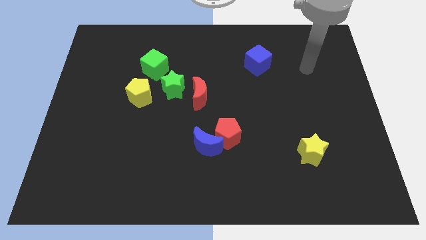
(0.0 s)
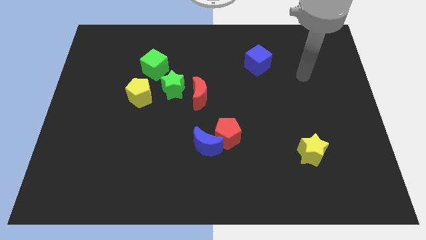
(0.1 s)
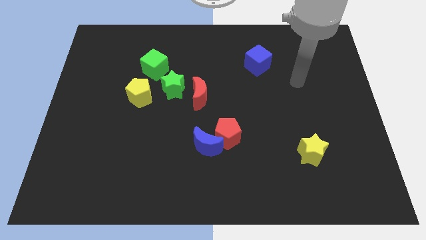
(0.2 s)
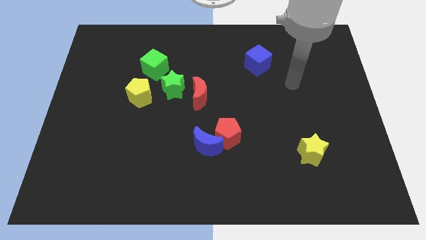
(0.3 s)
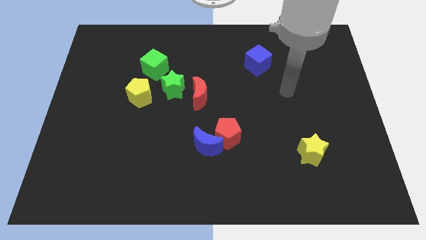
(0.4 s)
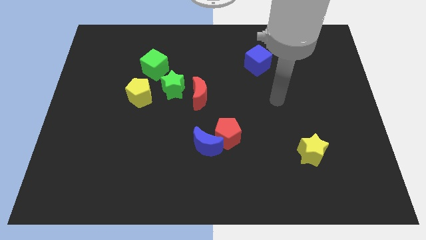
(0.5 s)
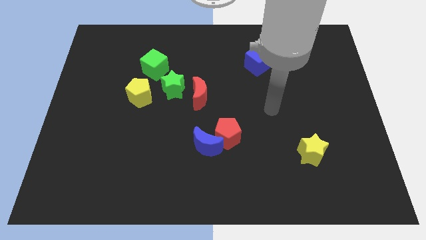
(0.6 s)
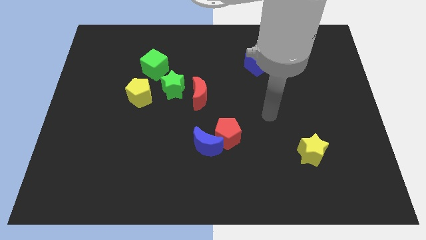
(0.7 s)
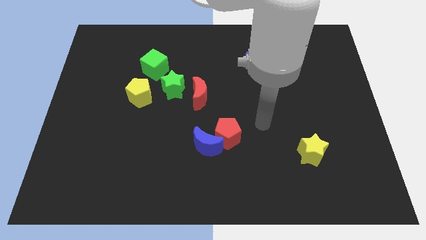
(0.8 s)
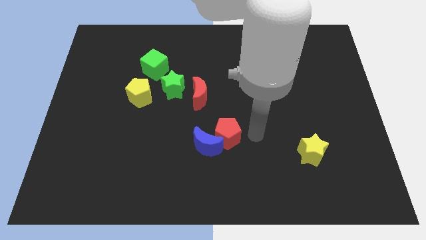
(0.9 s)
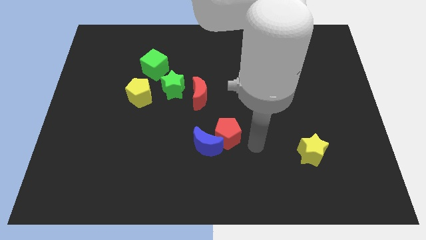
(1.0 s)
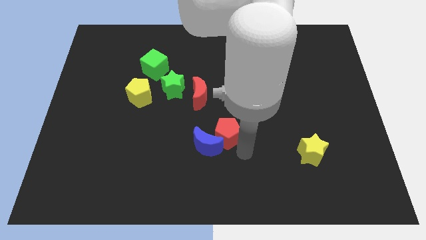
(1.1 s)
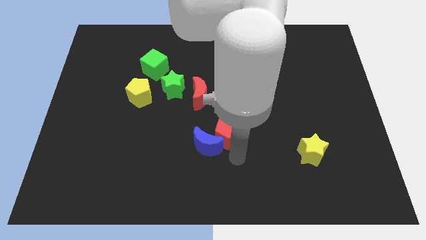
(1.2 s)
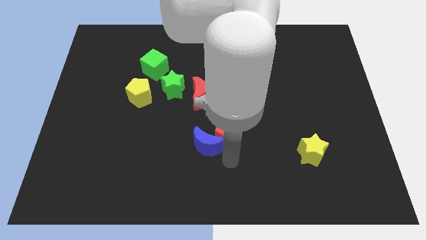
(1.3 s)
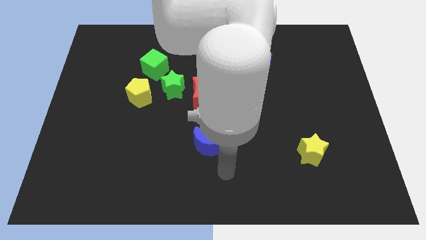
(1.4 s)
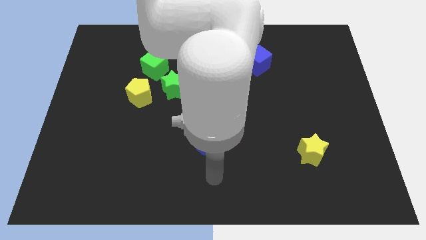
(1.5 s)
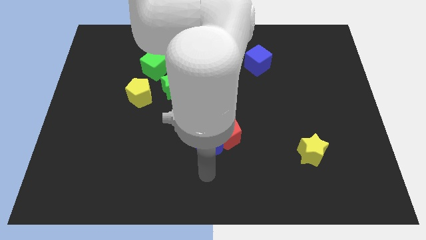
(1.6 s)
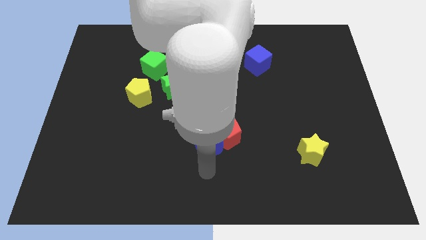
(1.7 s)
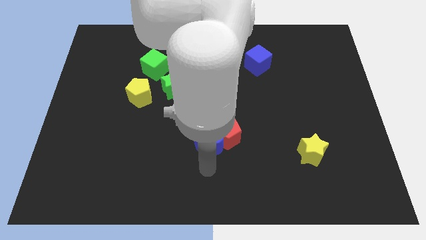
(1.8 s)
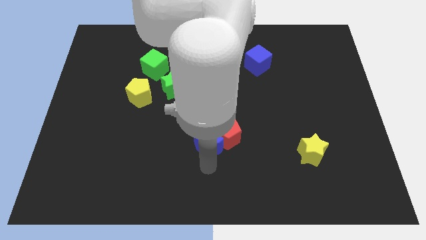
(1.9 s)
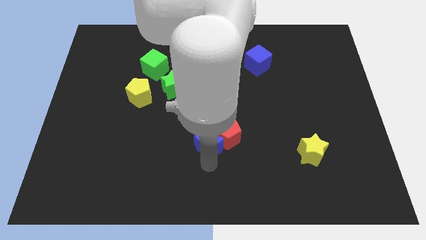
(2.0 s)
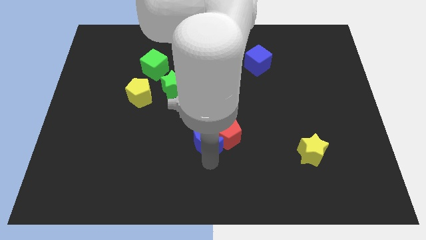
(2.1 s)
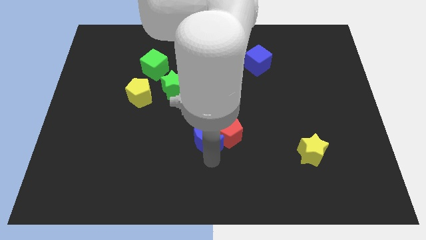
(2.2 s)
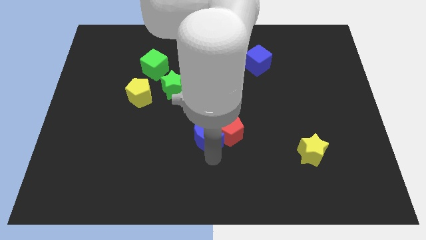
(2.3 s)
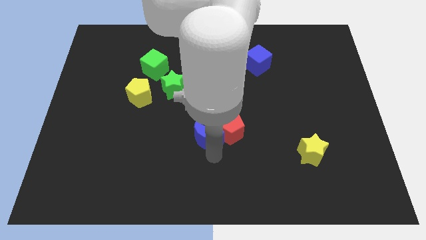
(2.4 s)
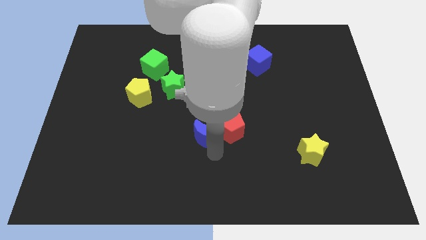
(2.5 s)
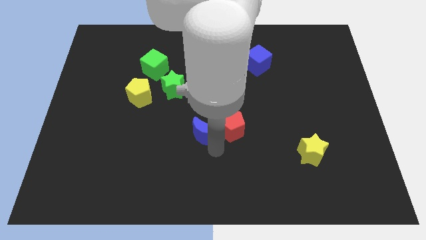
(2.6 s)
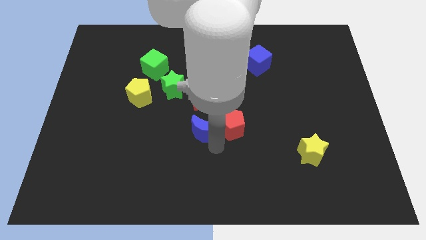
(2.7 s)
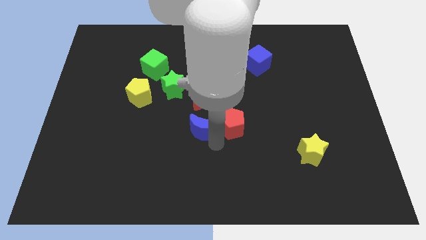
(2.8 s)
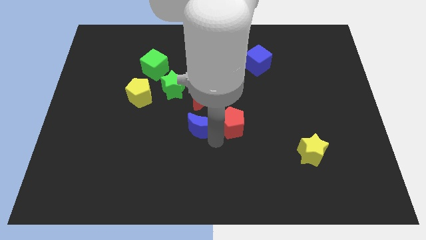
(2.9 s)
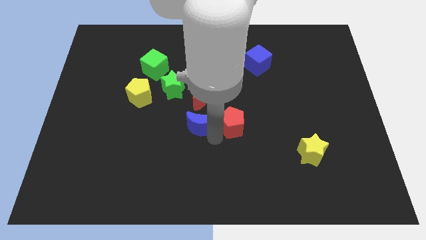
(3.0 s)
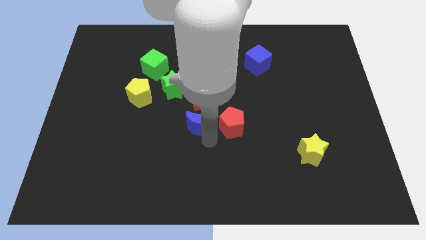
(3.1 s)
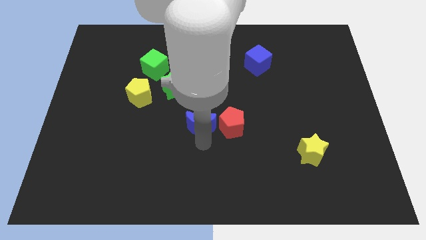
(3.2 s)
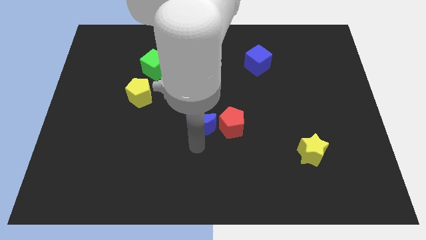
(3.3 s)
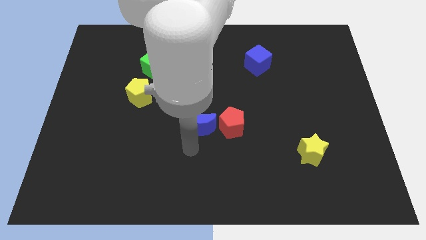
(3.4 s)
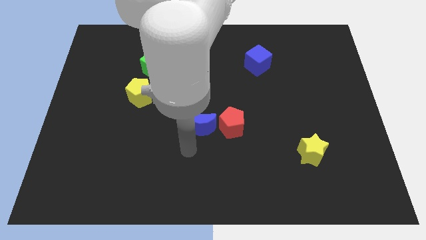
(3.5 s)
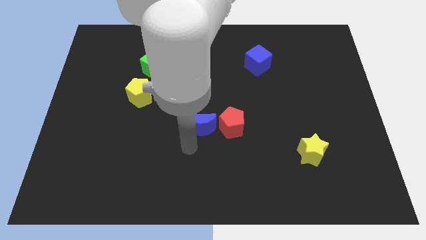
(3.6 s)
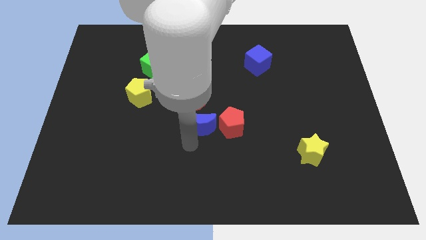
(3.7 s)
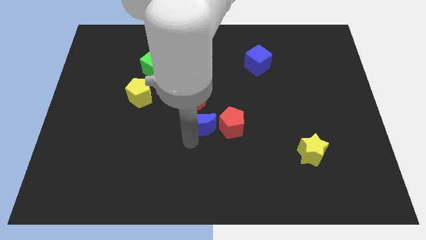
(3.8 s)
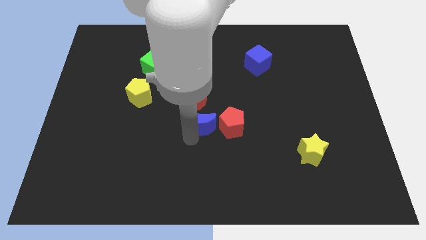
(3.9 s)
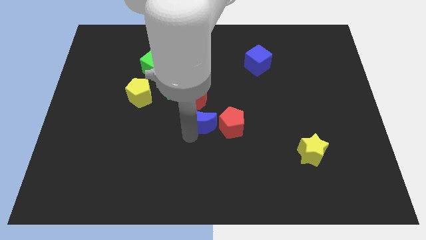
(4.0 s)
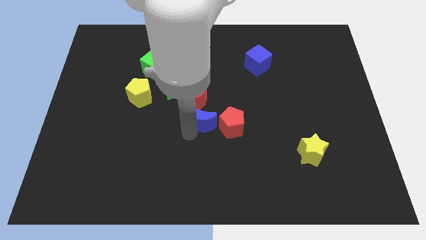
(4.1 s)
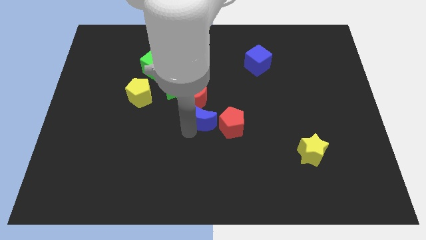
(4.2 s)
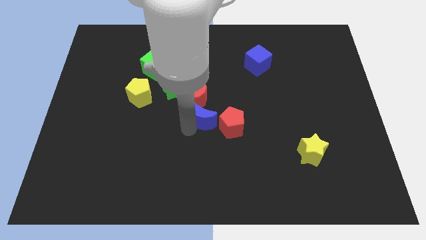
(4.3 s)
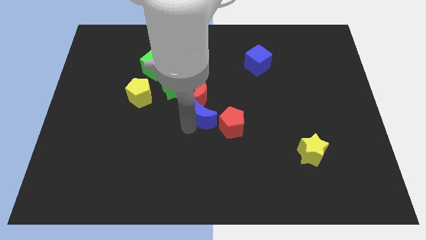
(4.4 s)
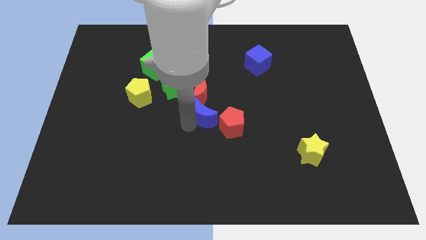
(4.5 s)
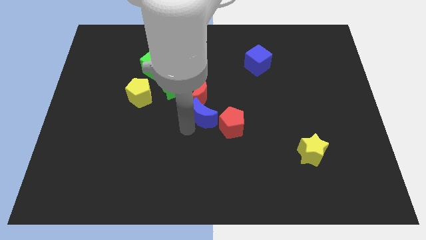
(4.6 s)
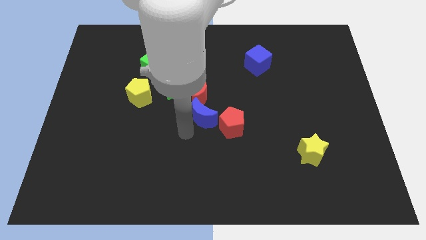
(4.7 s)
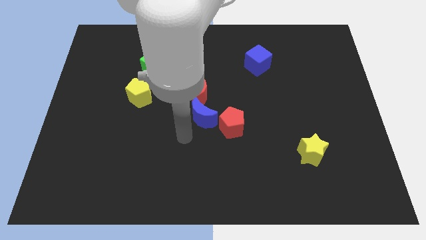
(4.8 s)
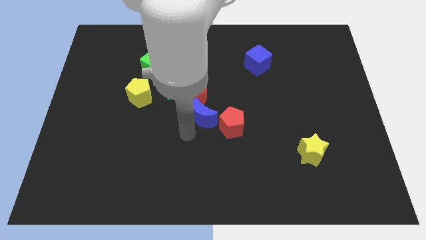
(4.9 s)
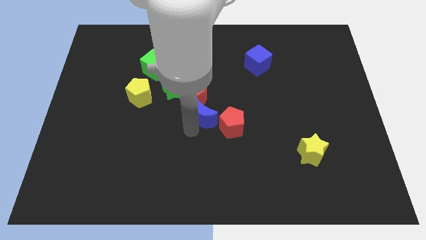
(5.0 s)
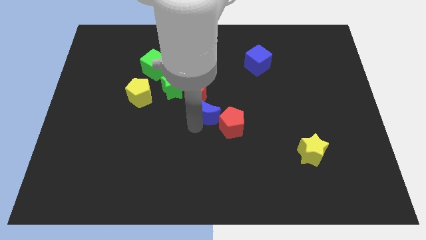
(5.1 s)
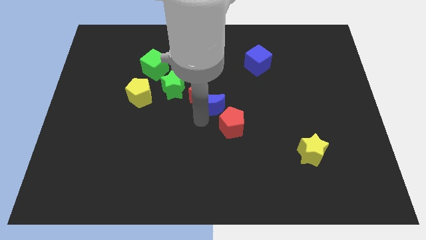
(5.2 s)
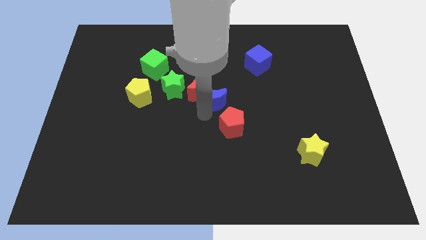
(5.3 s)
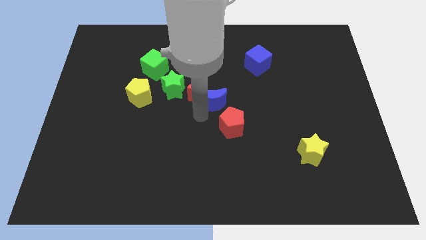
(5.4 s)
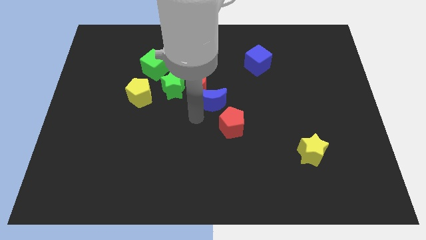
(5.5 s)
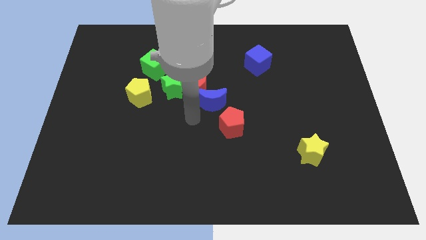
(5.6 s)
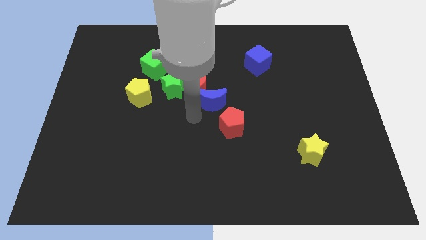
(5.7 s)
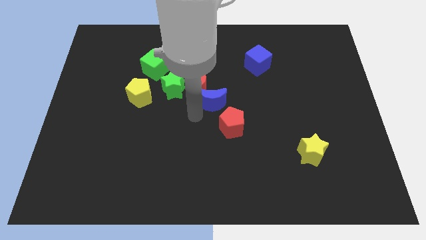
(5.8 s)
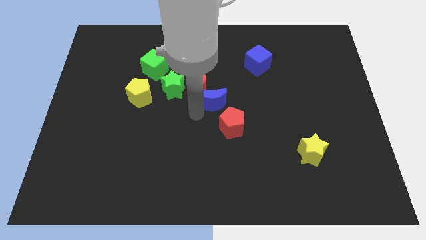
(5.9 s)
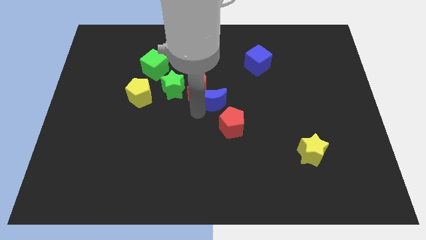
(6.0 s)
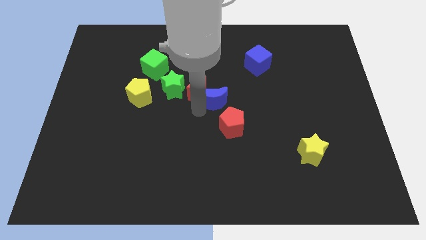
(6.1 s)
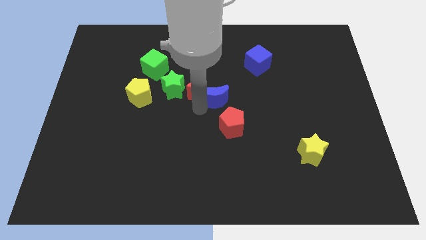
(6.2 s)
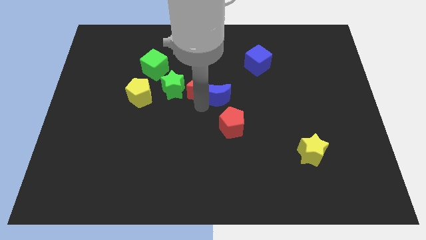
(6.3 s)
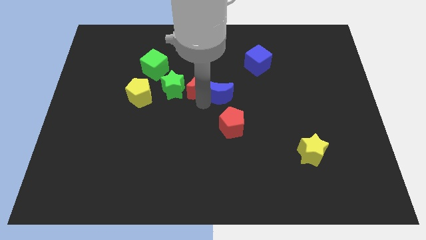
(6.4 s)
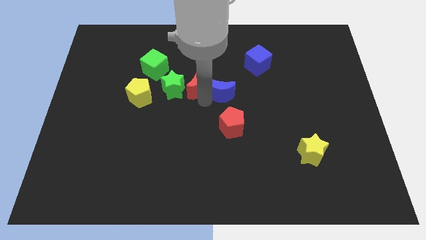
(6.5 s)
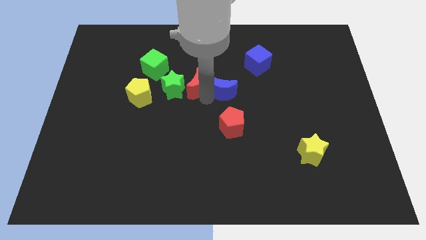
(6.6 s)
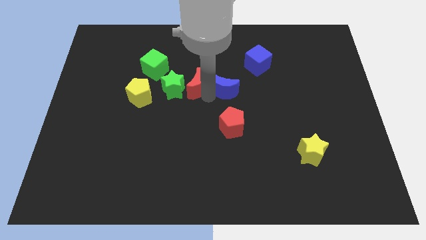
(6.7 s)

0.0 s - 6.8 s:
slide the blue moon to the bottom left of the blue cube

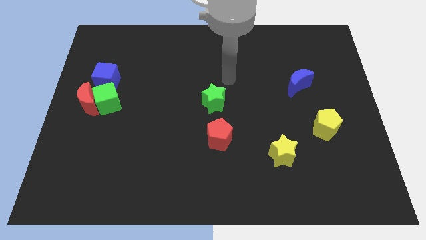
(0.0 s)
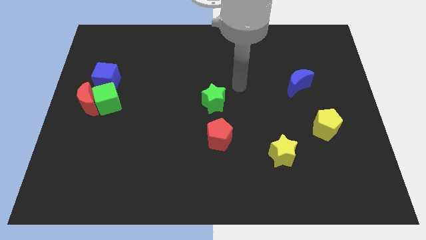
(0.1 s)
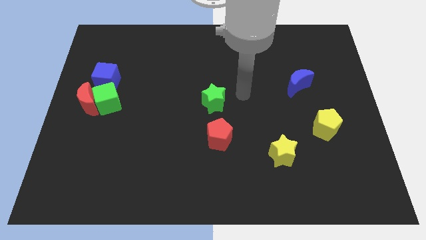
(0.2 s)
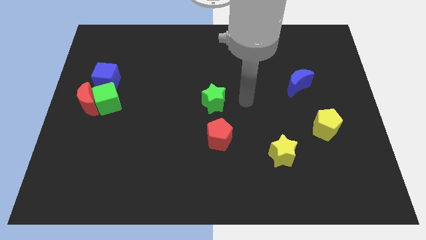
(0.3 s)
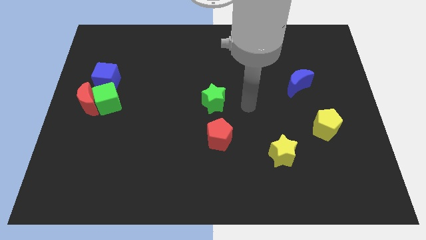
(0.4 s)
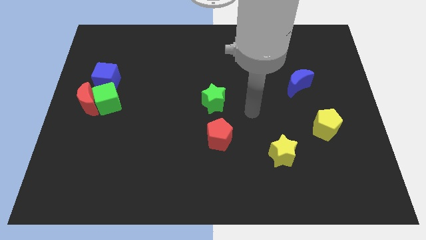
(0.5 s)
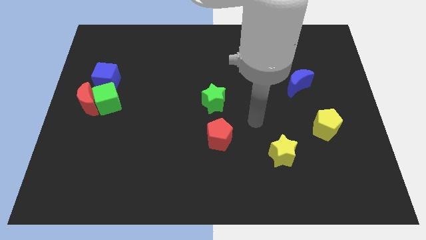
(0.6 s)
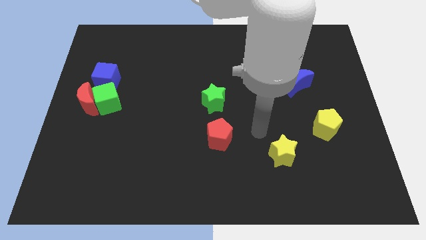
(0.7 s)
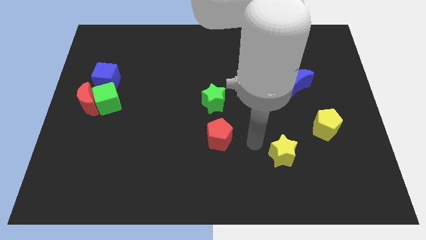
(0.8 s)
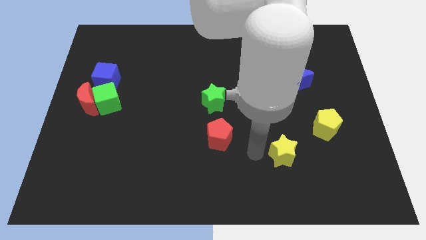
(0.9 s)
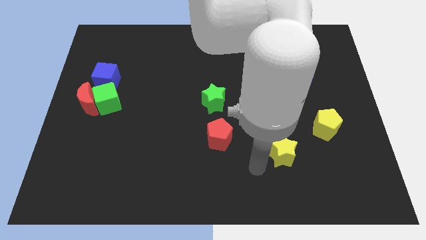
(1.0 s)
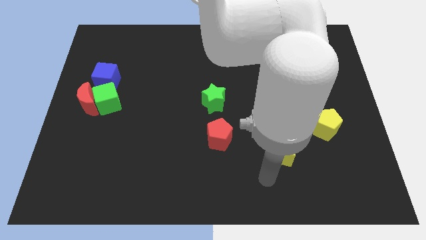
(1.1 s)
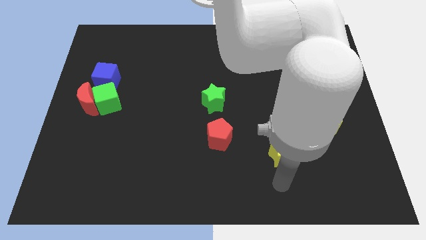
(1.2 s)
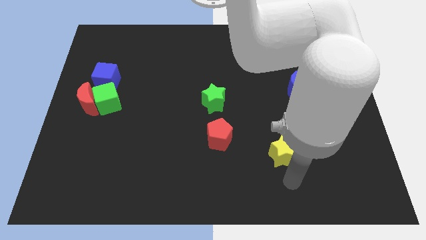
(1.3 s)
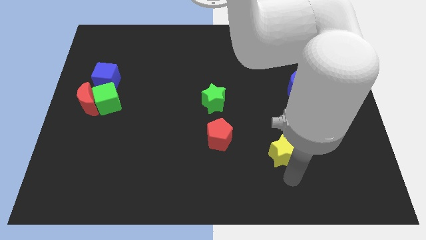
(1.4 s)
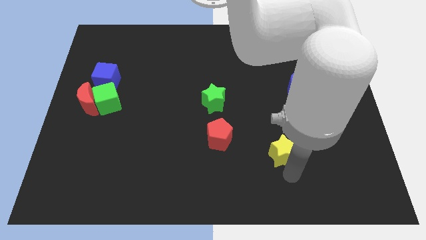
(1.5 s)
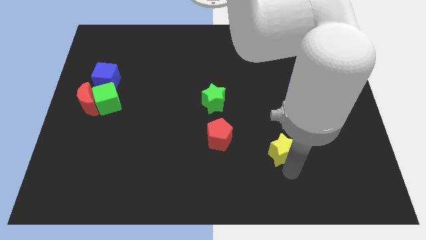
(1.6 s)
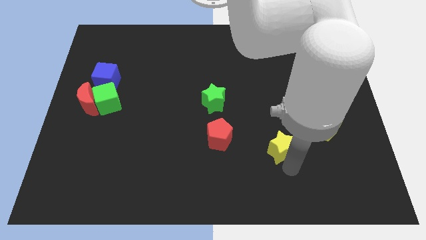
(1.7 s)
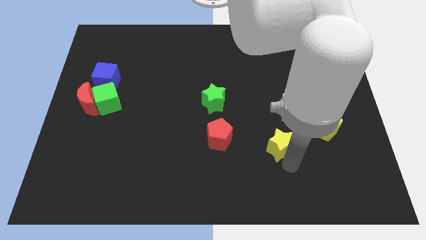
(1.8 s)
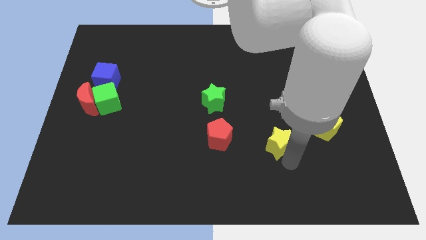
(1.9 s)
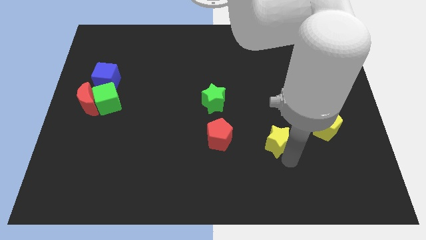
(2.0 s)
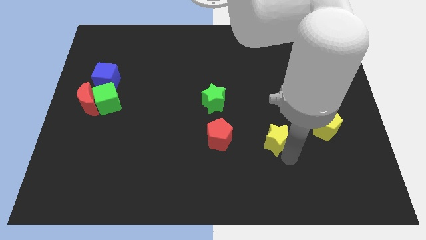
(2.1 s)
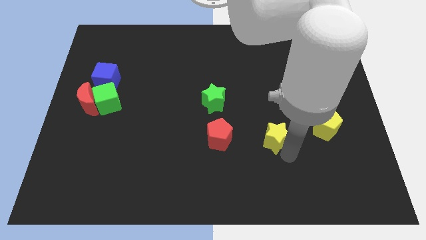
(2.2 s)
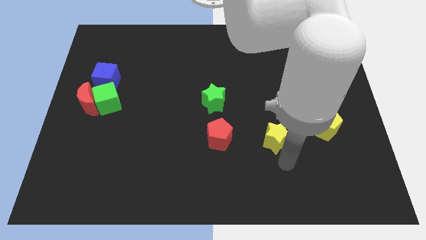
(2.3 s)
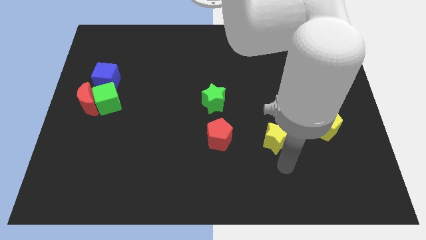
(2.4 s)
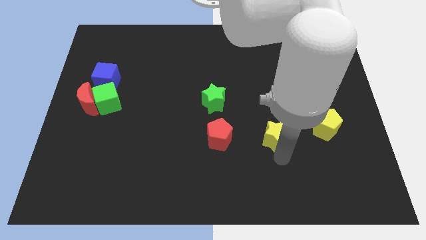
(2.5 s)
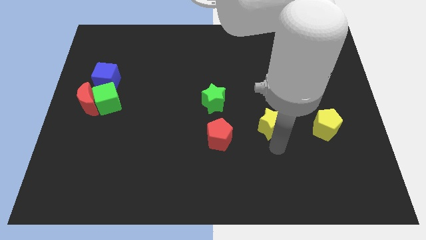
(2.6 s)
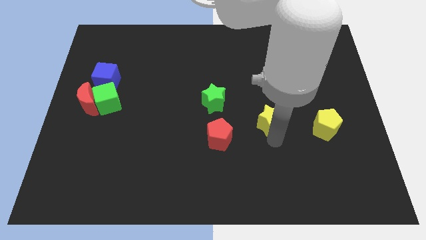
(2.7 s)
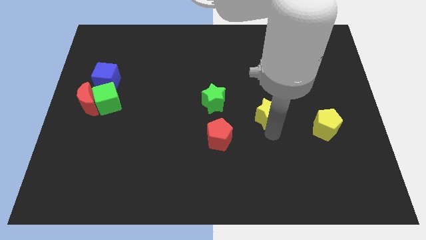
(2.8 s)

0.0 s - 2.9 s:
push the yellow star just right of the green star
